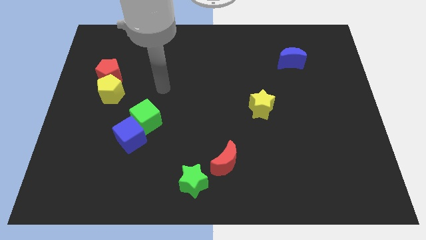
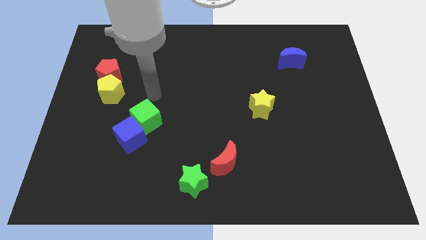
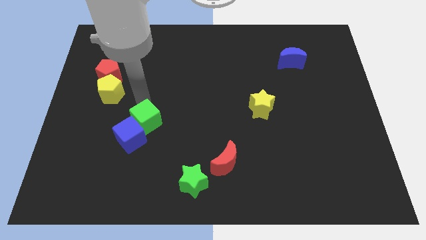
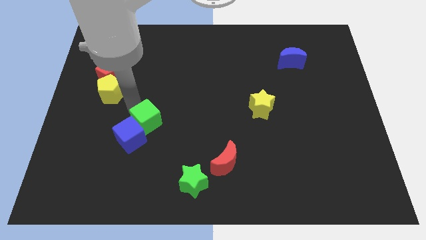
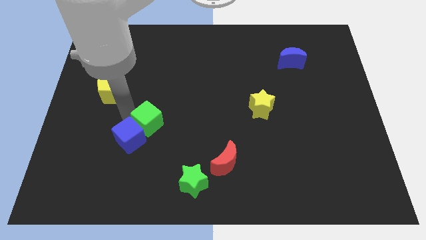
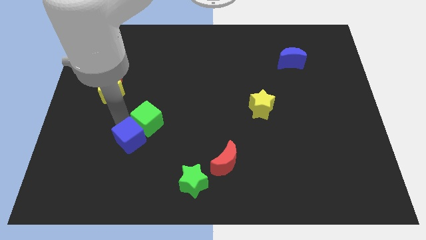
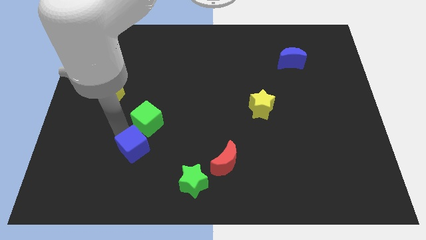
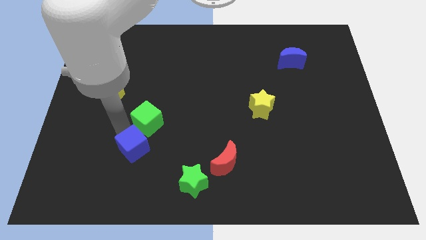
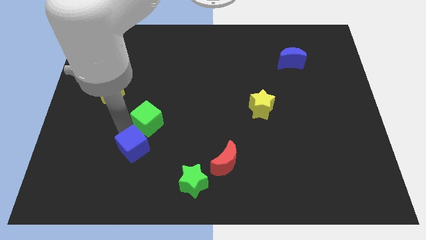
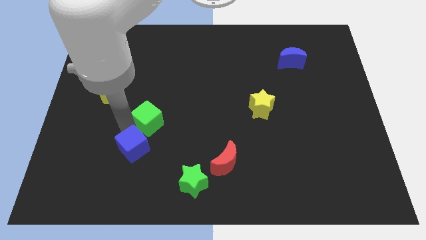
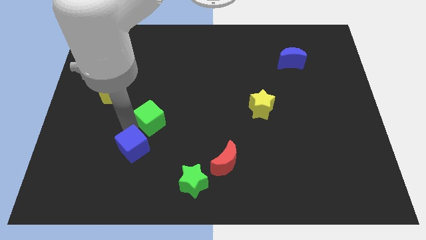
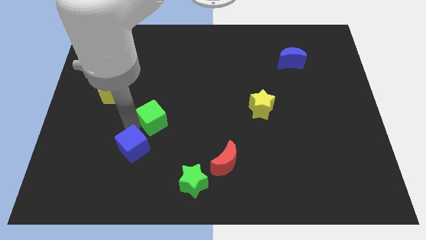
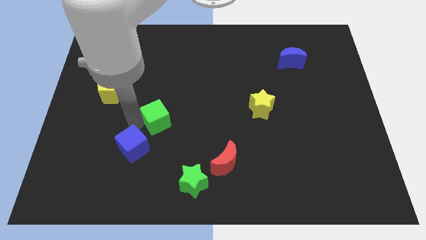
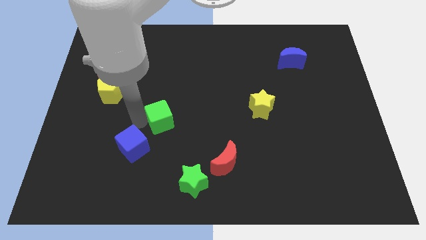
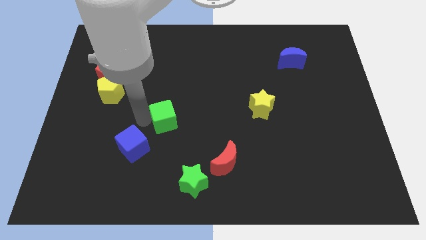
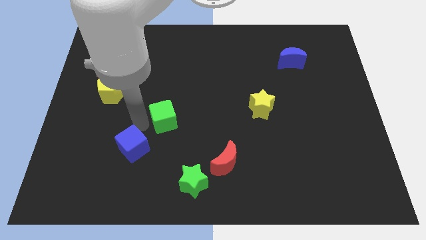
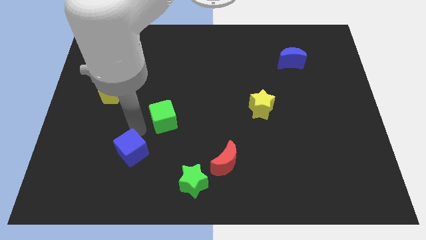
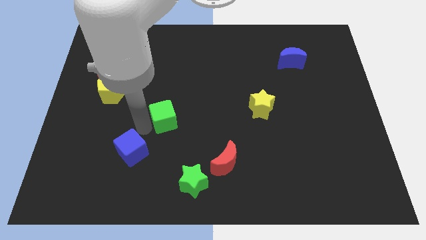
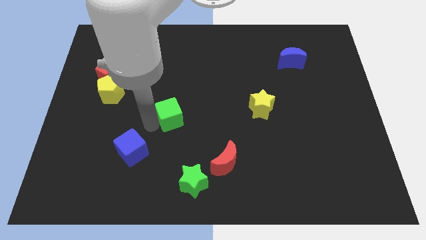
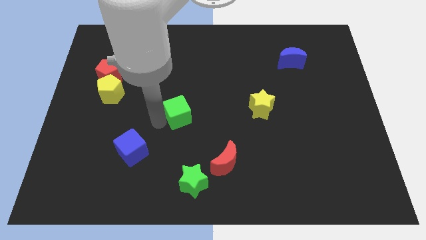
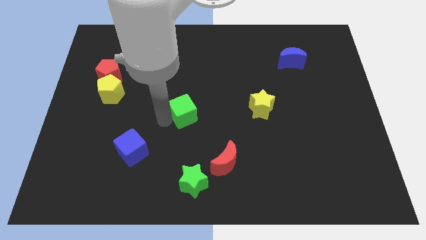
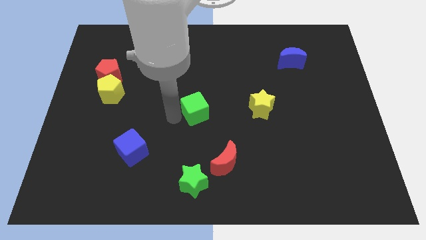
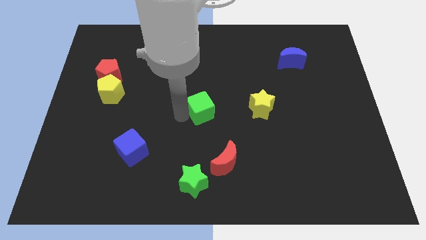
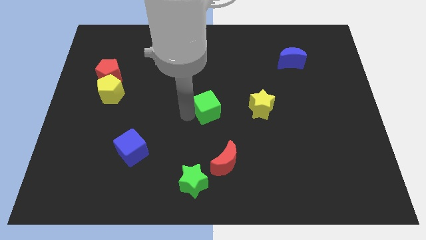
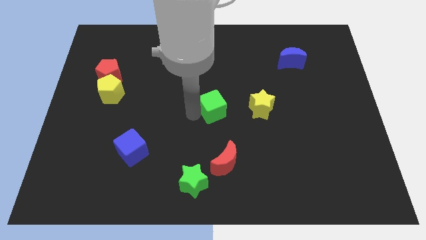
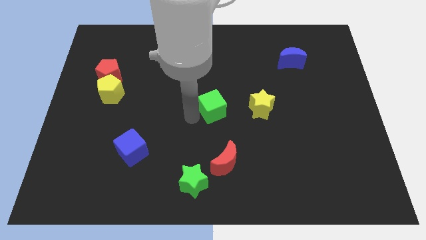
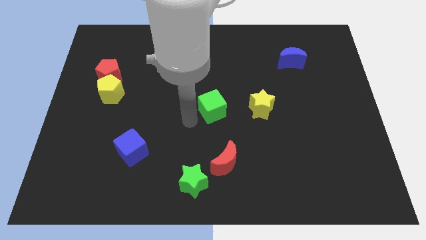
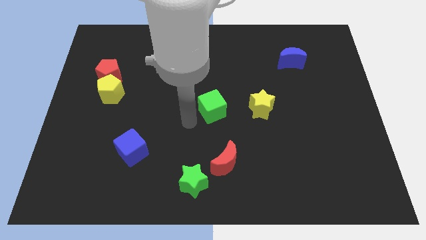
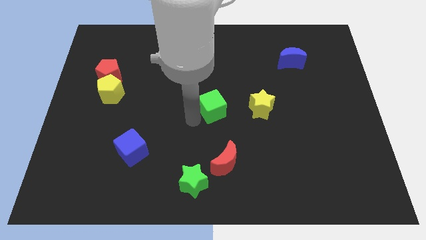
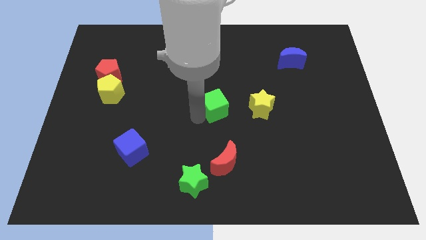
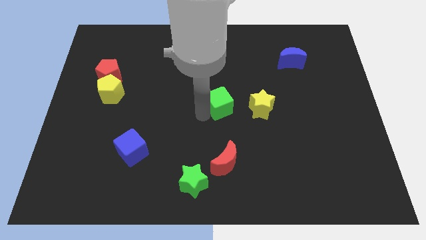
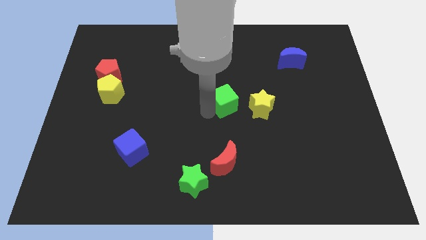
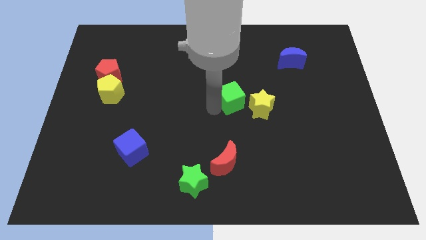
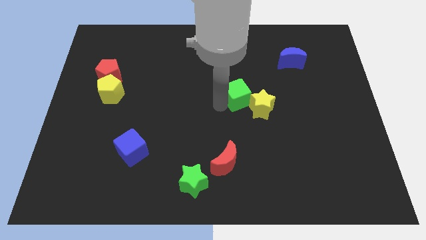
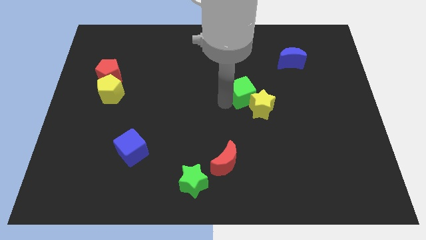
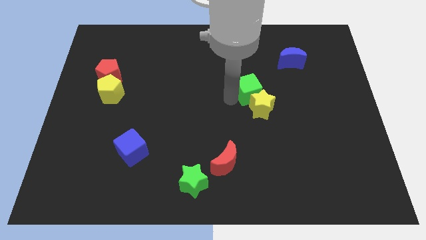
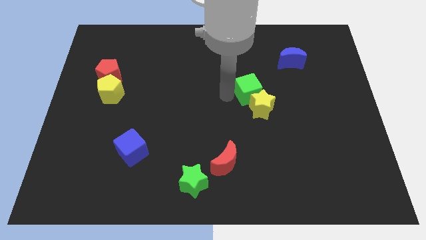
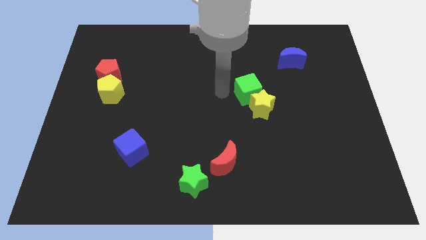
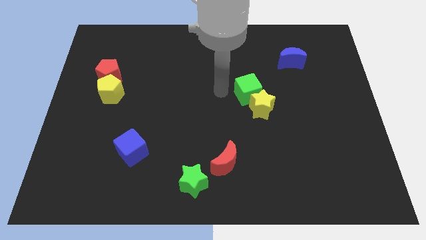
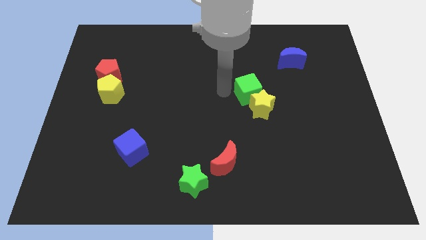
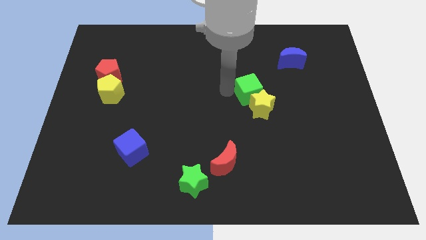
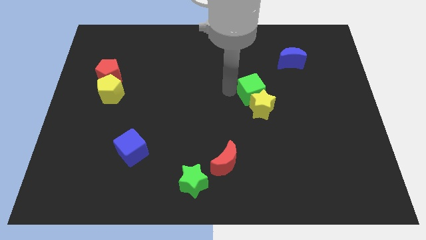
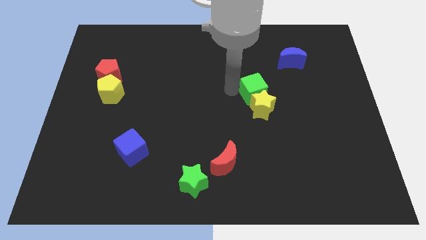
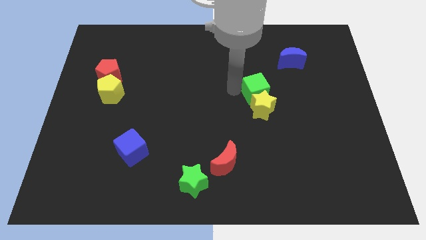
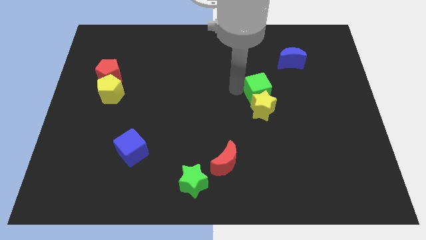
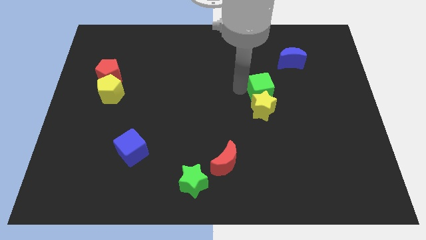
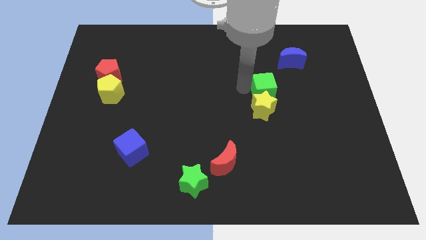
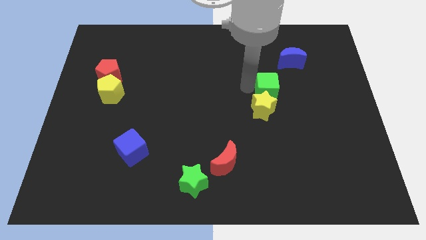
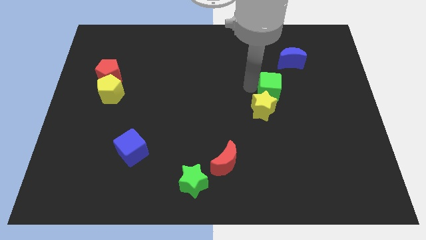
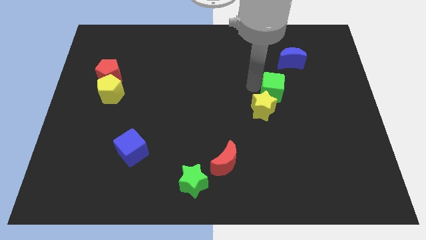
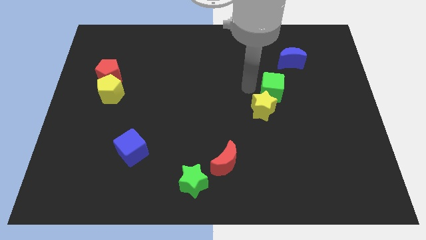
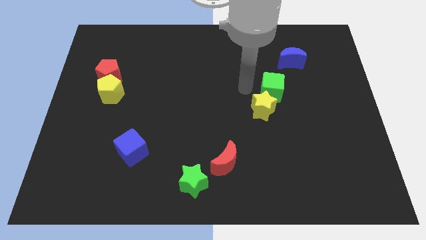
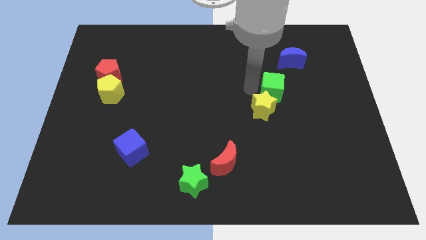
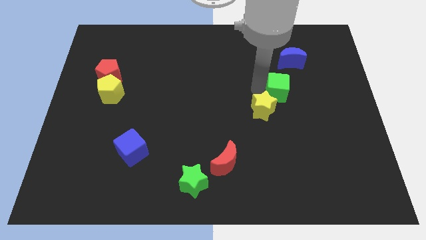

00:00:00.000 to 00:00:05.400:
push the green cube to the bottom of the blue moon

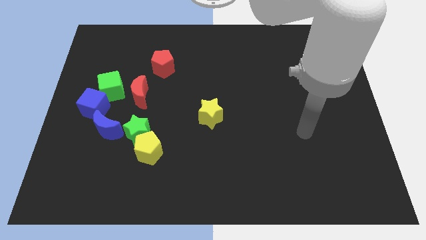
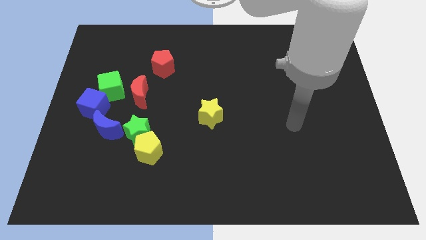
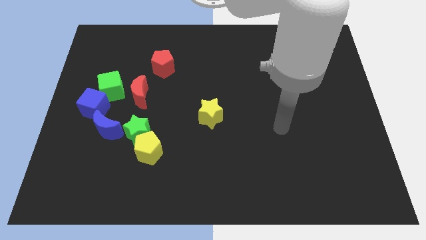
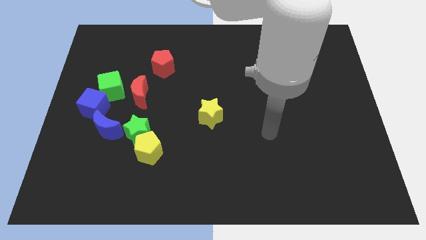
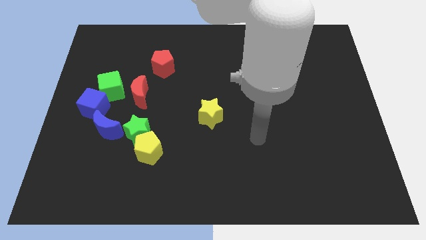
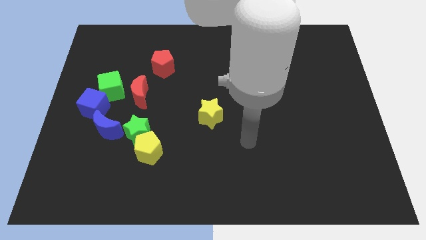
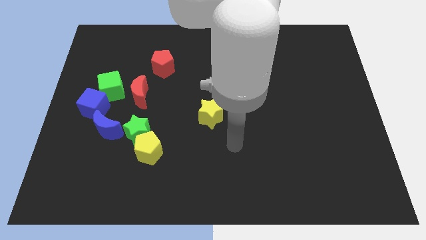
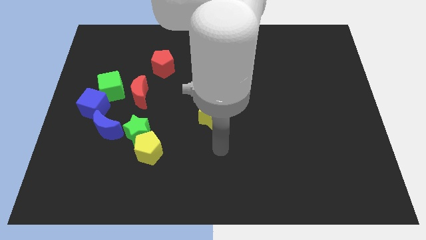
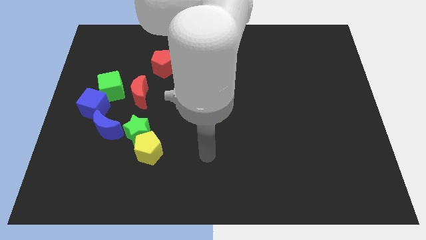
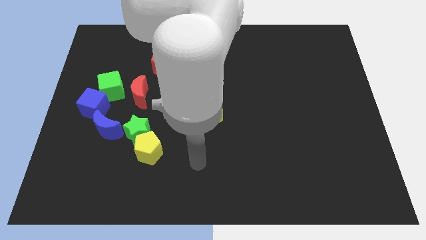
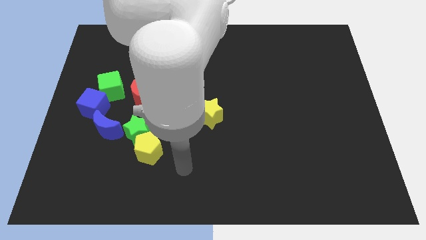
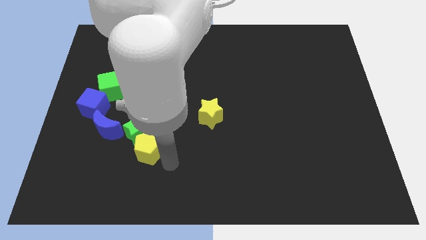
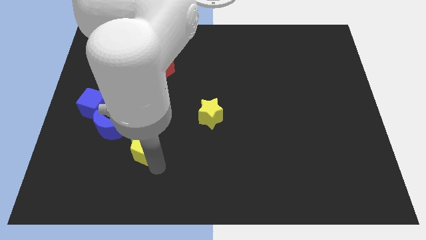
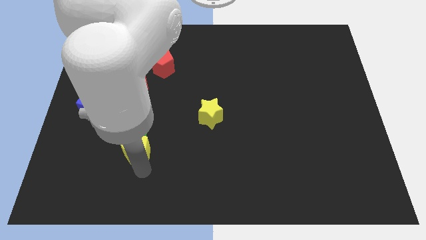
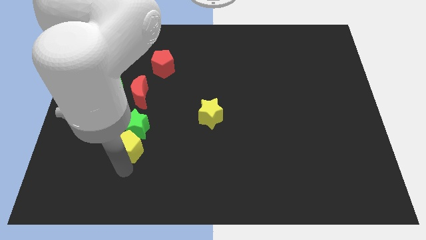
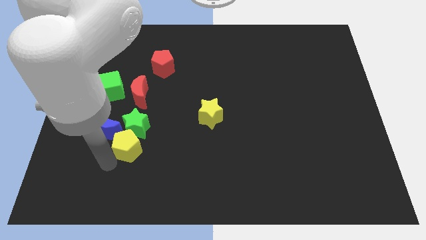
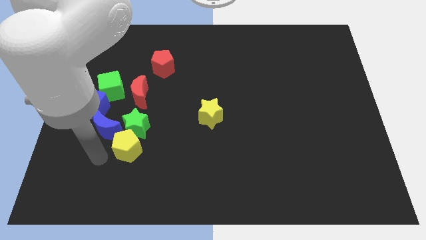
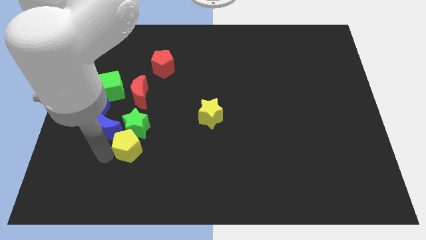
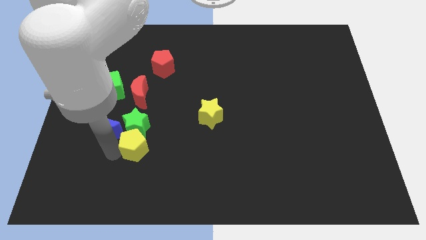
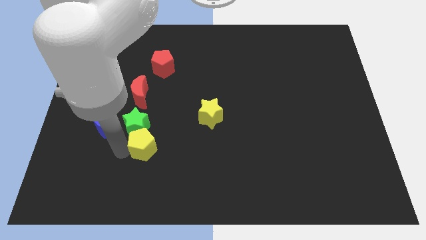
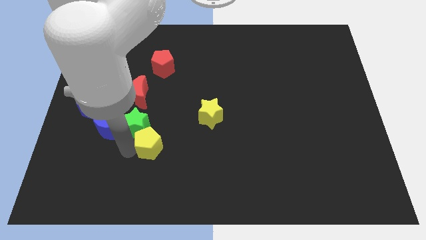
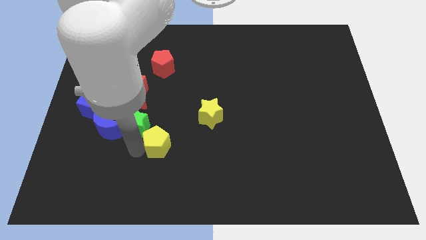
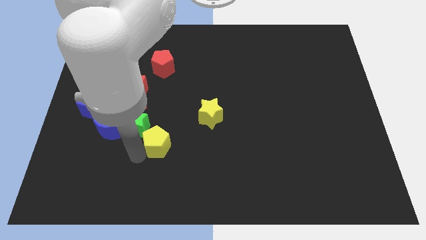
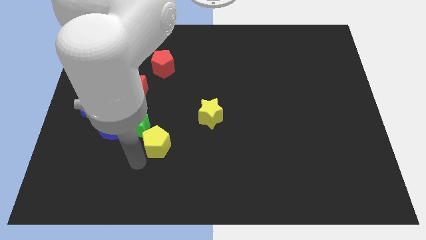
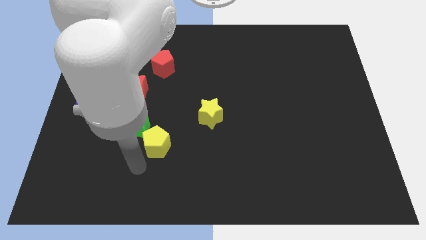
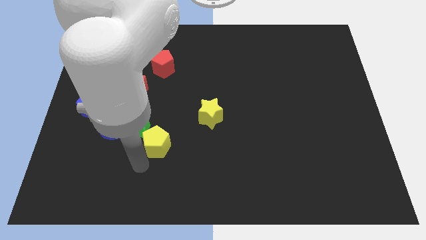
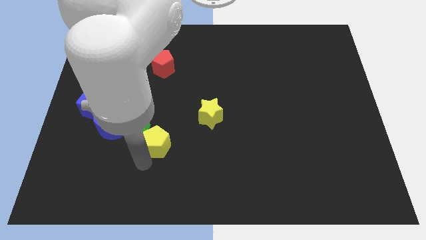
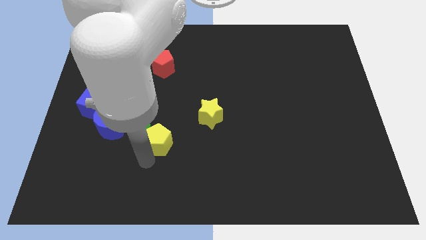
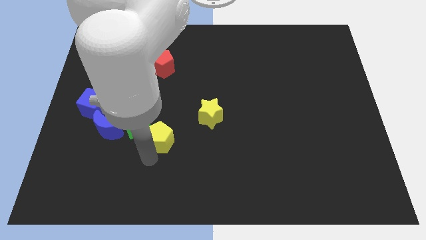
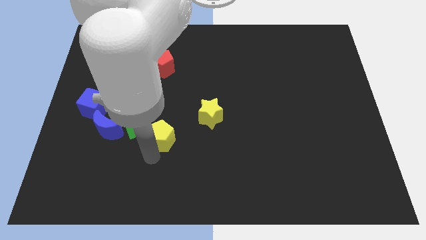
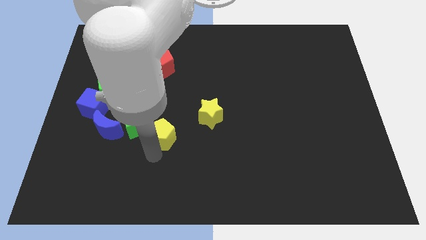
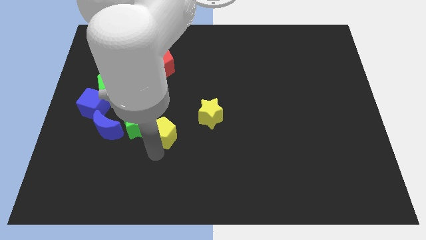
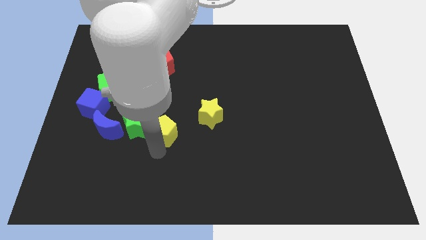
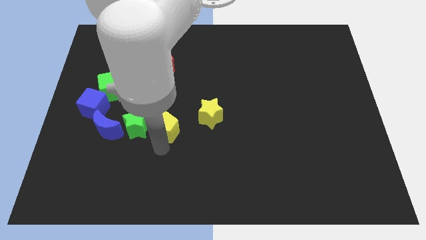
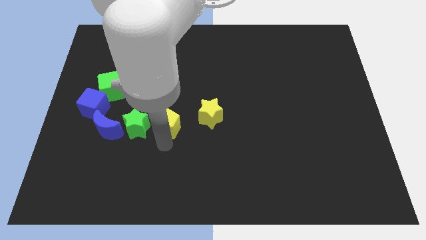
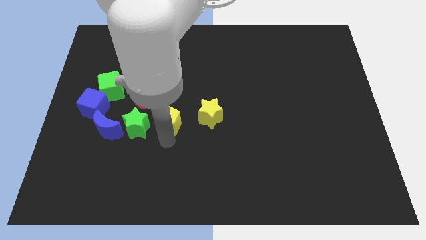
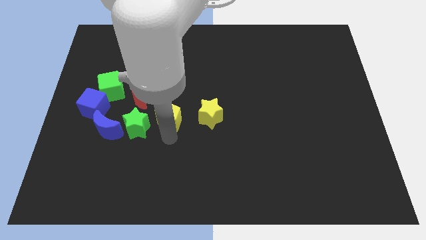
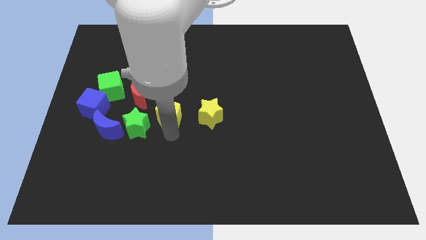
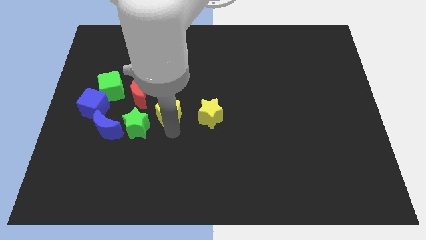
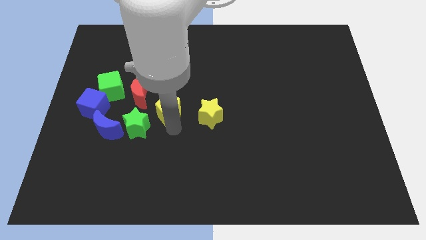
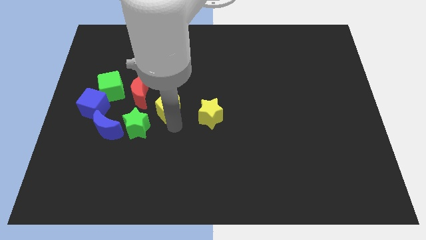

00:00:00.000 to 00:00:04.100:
put the yellow pentagon to the right side of the red moon
